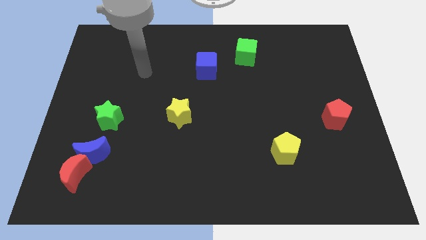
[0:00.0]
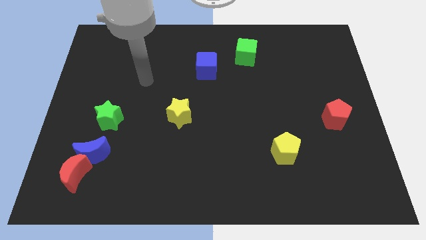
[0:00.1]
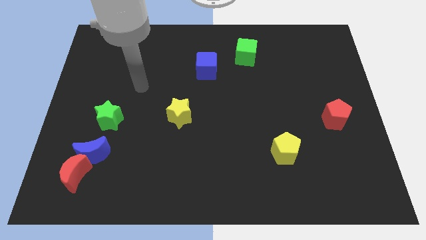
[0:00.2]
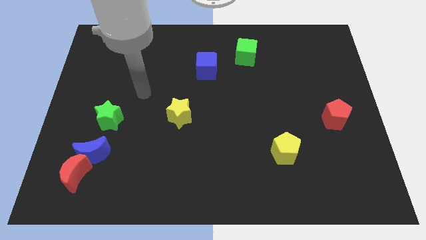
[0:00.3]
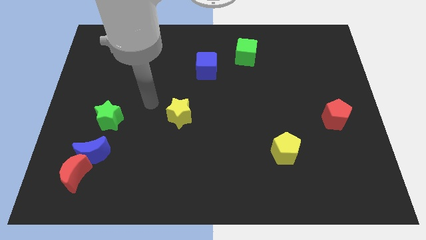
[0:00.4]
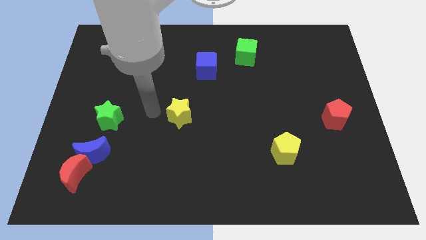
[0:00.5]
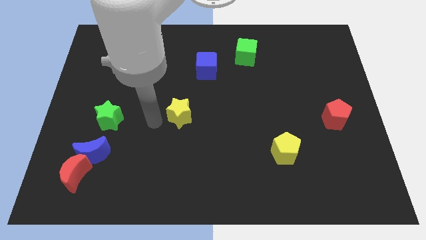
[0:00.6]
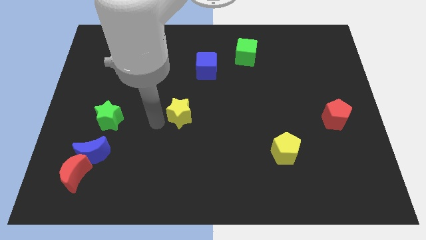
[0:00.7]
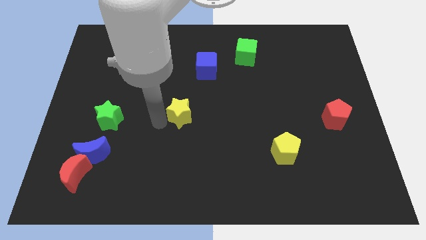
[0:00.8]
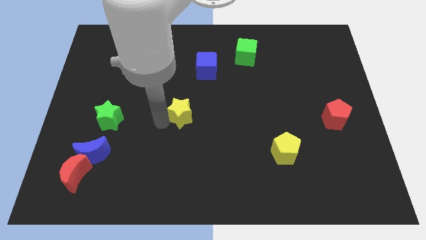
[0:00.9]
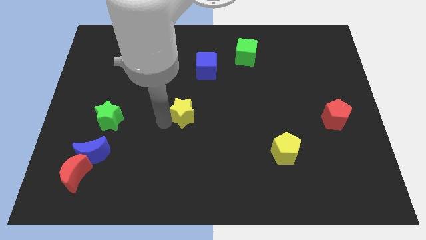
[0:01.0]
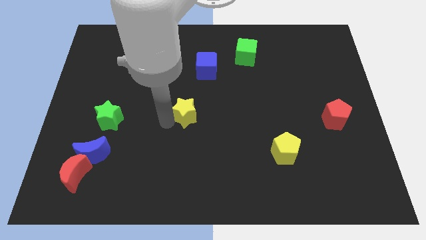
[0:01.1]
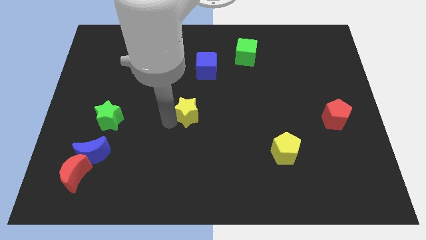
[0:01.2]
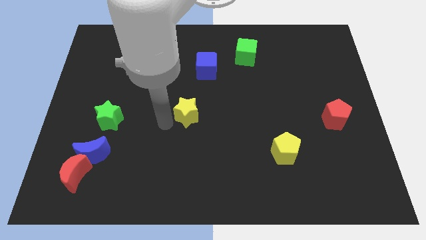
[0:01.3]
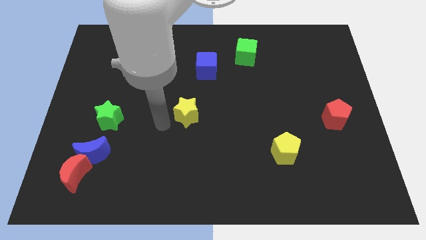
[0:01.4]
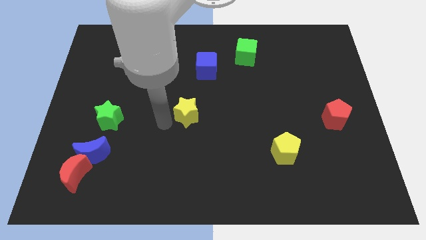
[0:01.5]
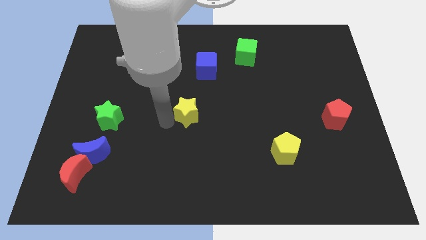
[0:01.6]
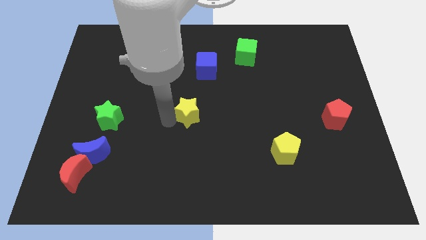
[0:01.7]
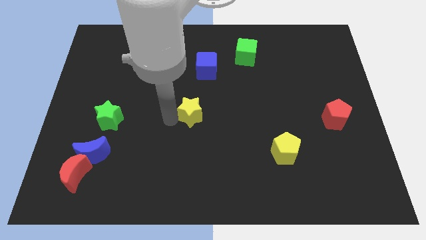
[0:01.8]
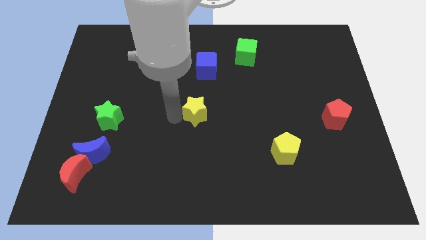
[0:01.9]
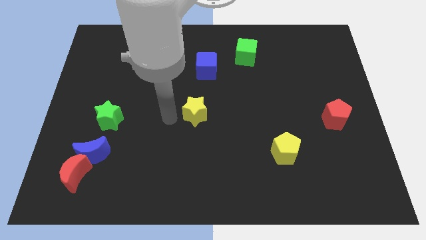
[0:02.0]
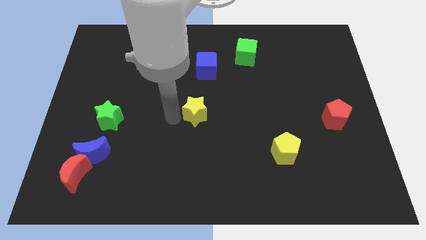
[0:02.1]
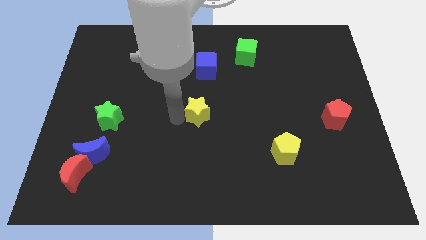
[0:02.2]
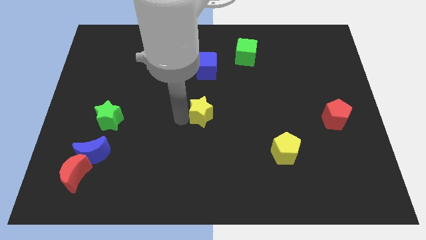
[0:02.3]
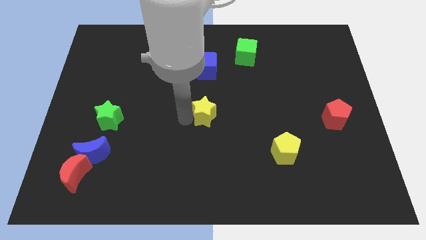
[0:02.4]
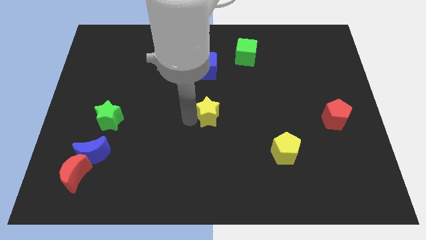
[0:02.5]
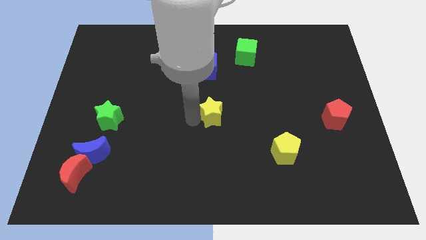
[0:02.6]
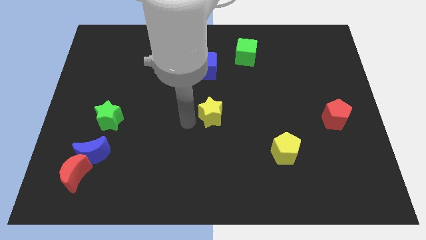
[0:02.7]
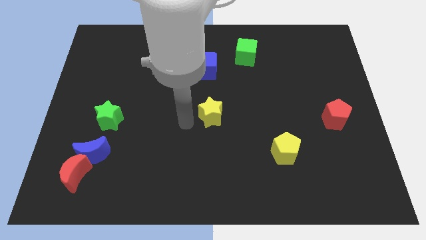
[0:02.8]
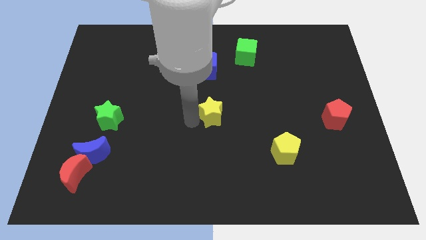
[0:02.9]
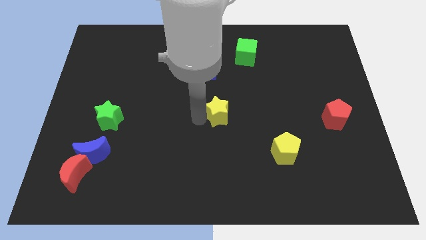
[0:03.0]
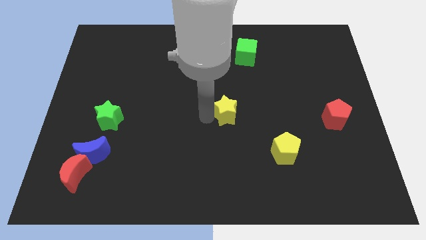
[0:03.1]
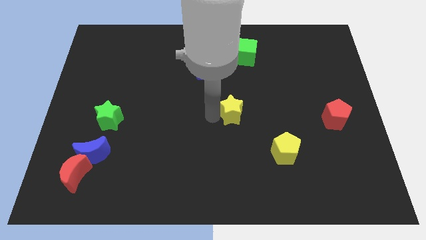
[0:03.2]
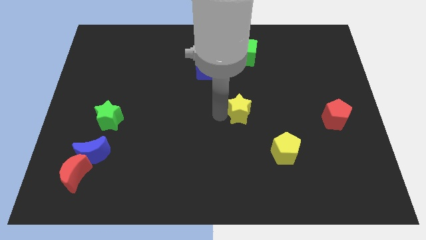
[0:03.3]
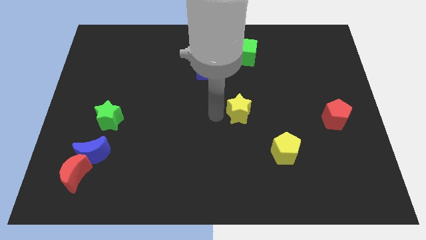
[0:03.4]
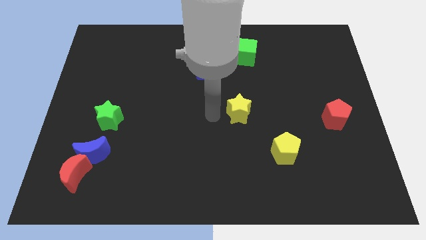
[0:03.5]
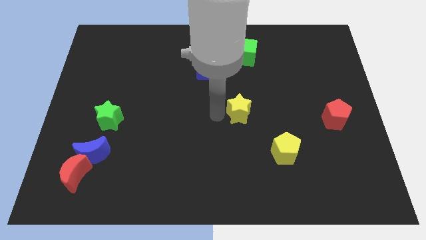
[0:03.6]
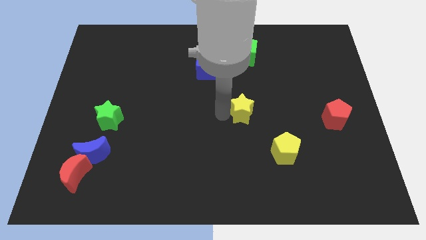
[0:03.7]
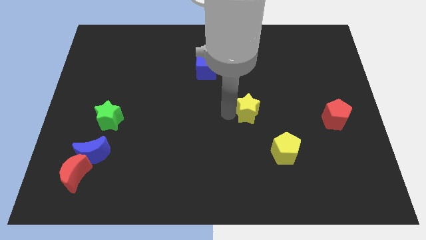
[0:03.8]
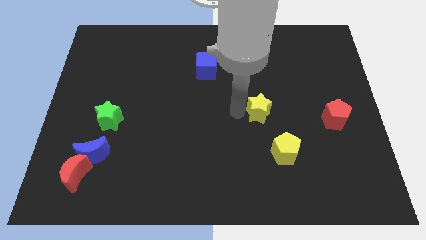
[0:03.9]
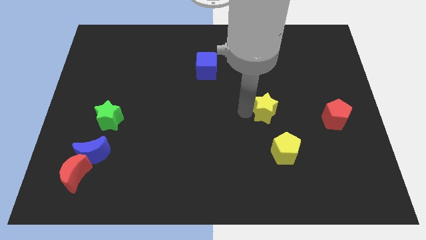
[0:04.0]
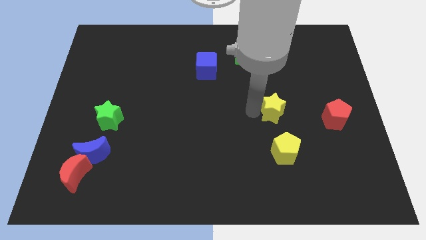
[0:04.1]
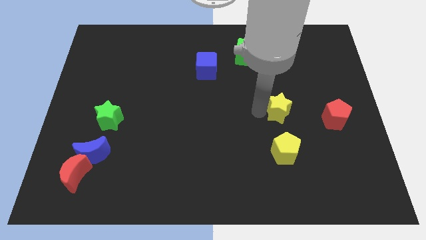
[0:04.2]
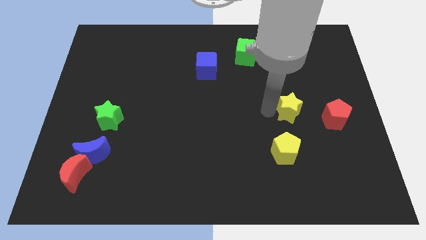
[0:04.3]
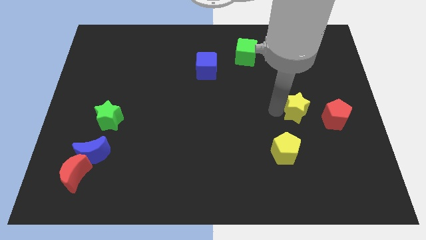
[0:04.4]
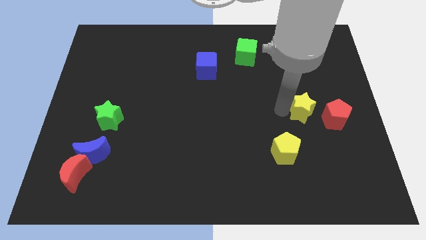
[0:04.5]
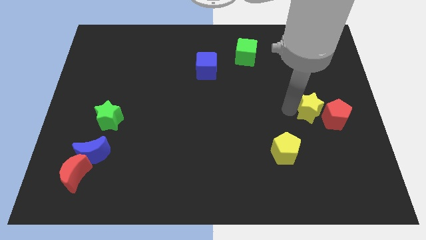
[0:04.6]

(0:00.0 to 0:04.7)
put the yellow star towards the red pentagon

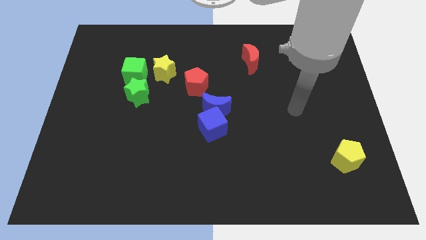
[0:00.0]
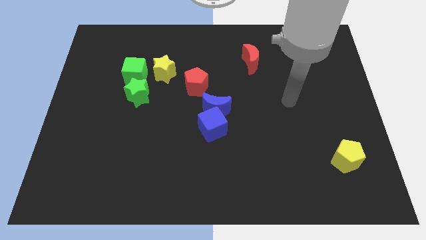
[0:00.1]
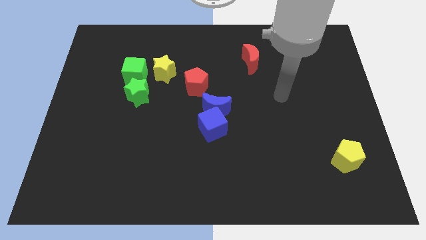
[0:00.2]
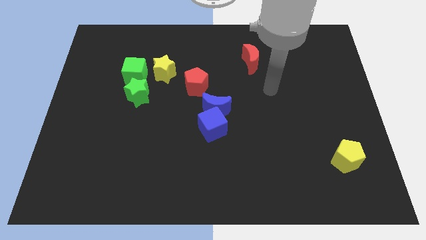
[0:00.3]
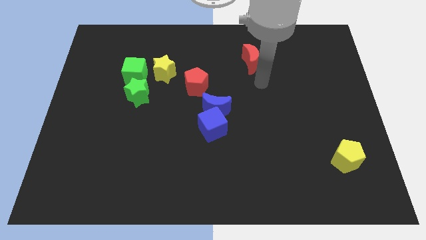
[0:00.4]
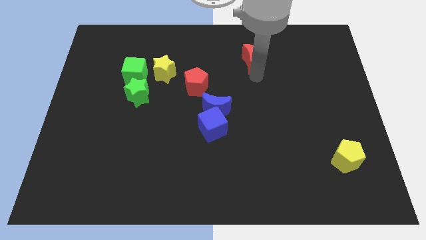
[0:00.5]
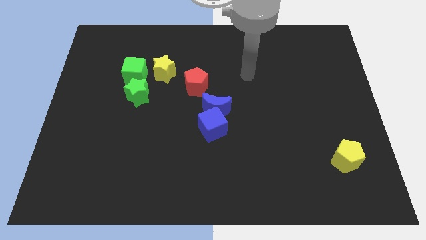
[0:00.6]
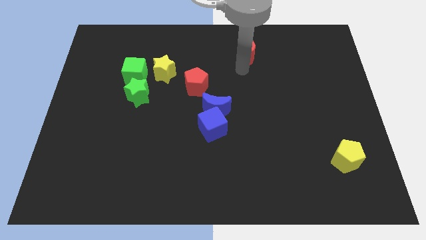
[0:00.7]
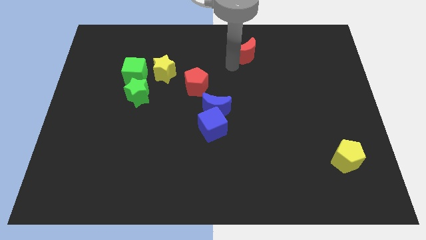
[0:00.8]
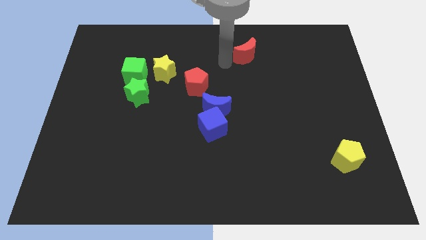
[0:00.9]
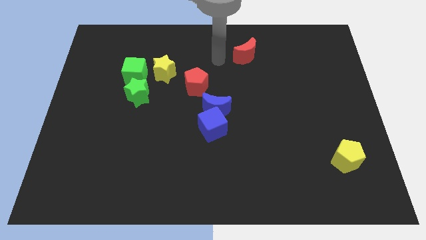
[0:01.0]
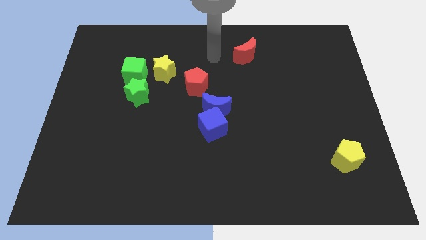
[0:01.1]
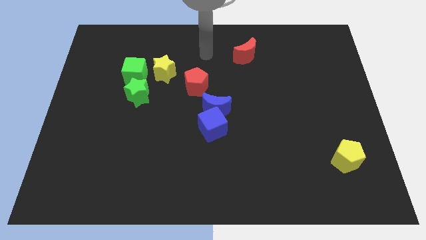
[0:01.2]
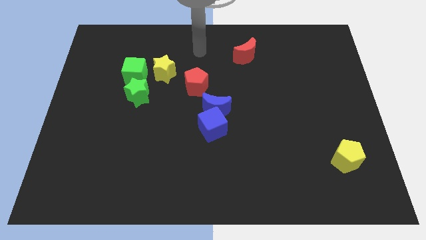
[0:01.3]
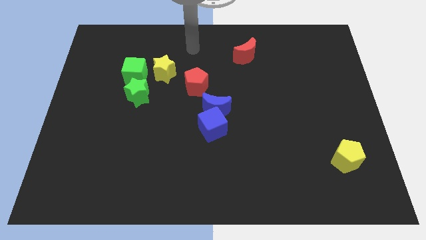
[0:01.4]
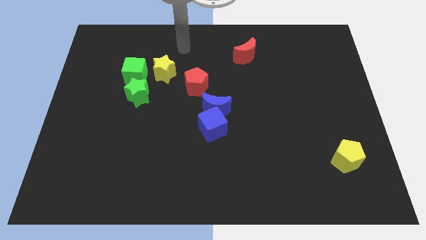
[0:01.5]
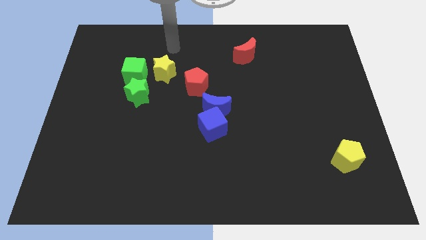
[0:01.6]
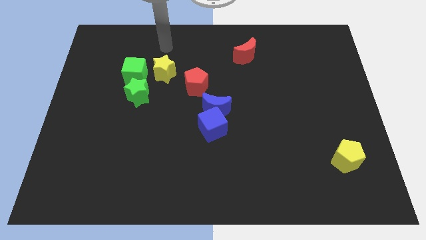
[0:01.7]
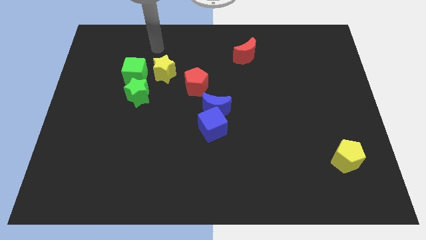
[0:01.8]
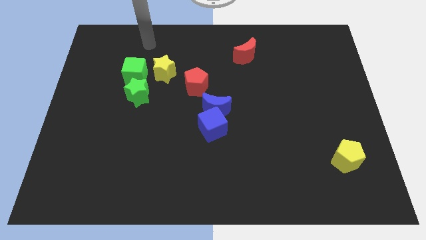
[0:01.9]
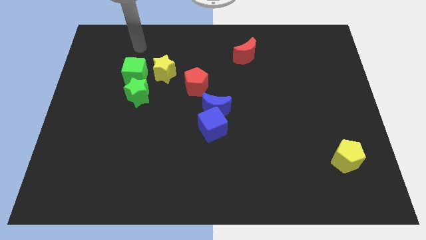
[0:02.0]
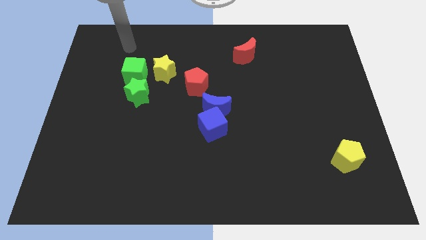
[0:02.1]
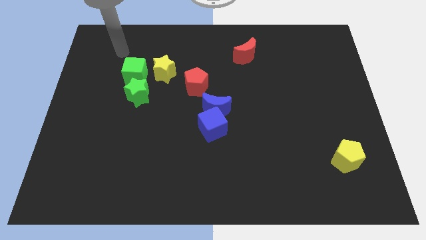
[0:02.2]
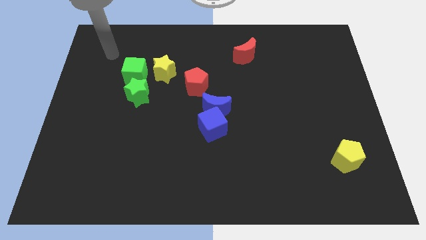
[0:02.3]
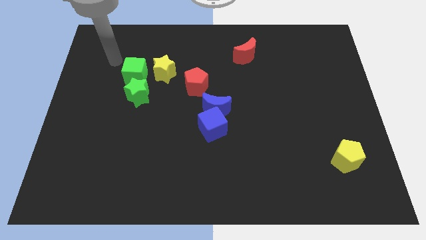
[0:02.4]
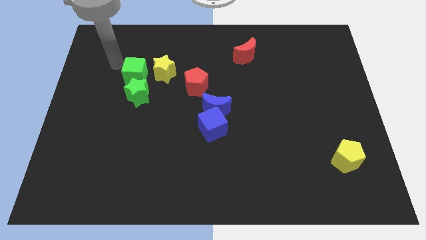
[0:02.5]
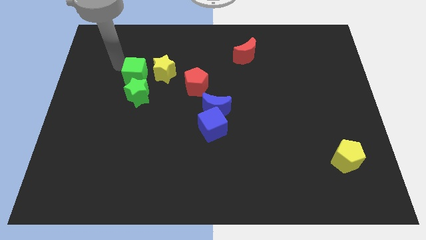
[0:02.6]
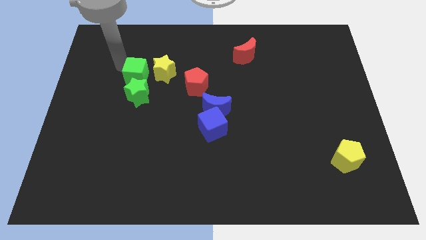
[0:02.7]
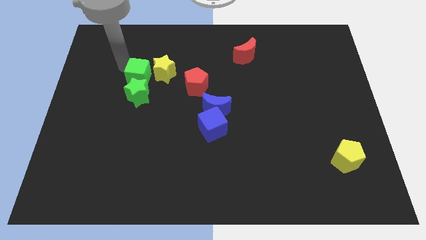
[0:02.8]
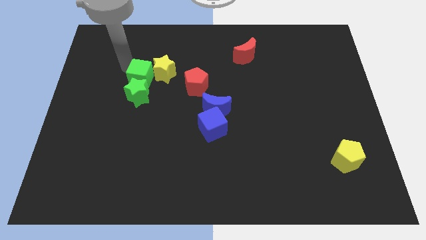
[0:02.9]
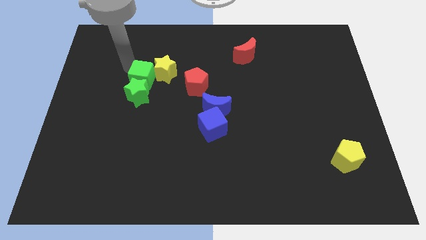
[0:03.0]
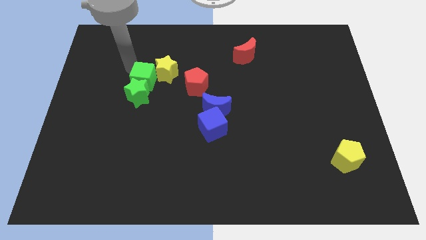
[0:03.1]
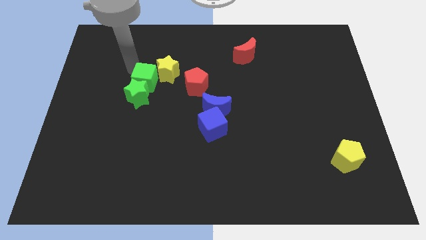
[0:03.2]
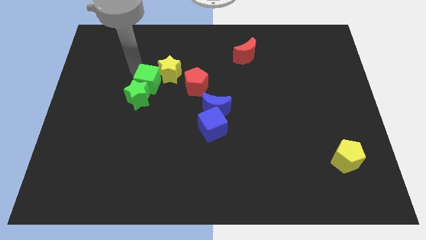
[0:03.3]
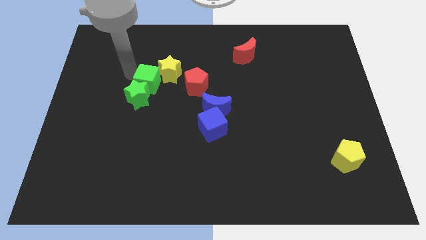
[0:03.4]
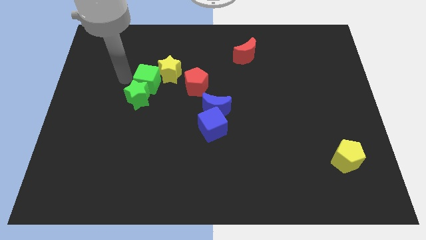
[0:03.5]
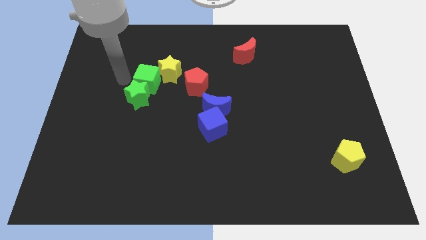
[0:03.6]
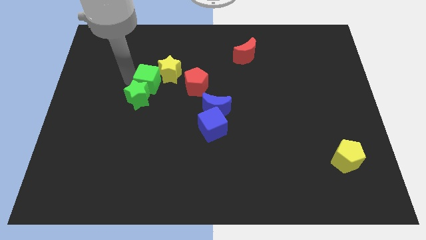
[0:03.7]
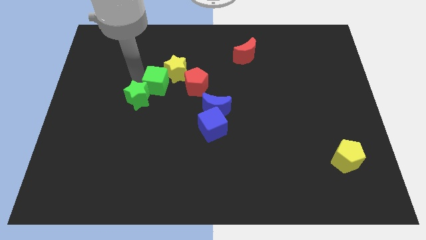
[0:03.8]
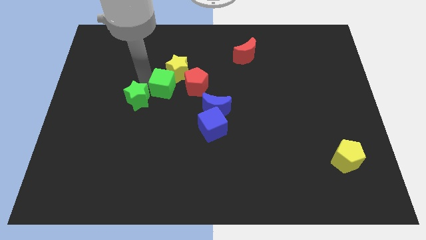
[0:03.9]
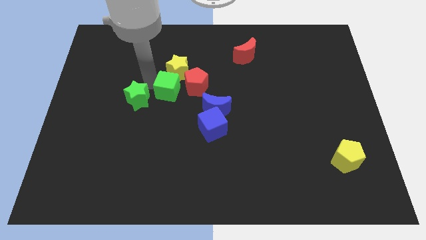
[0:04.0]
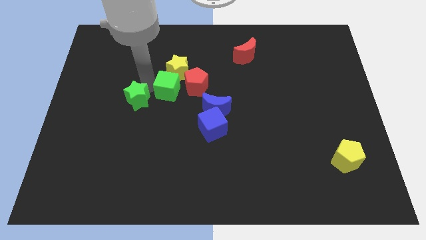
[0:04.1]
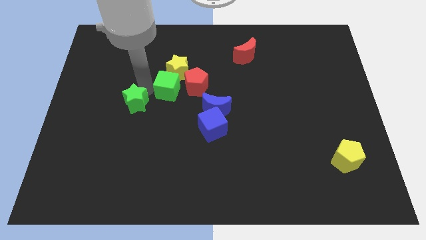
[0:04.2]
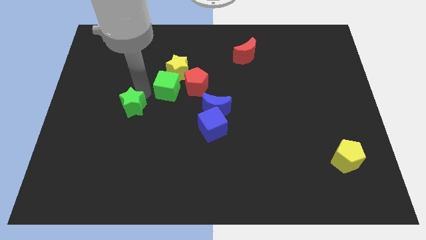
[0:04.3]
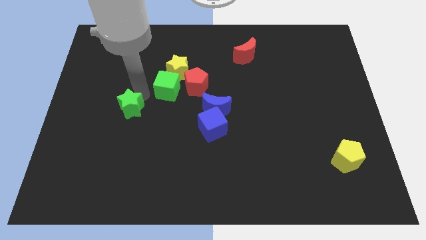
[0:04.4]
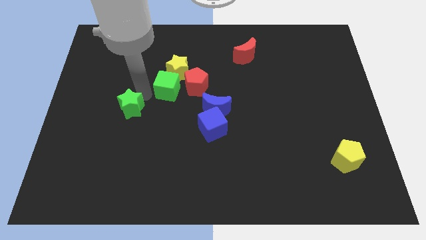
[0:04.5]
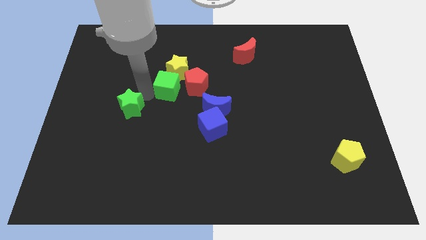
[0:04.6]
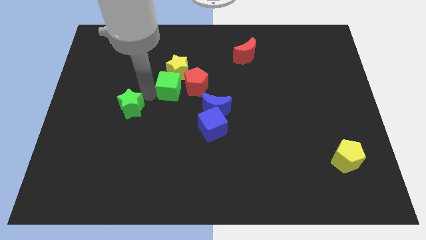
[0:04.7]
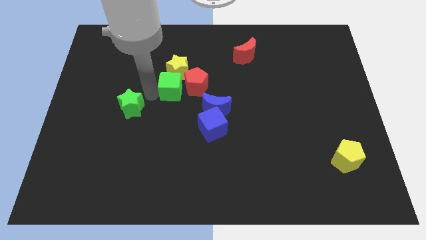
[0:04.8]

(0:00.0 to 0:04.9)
slide the green cube close to the red pentagon
